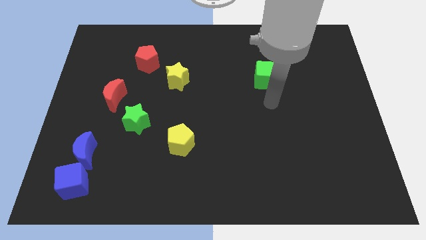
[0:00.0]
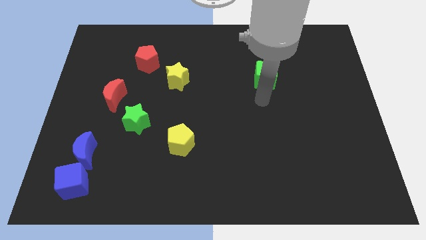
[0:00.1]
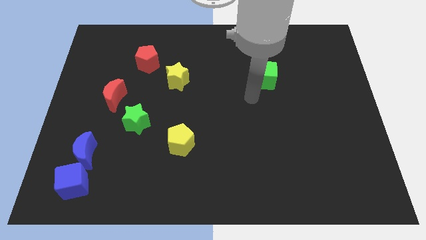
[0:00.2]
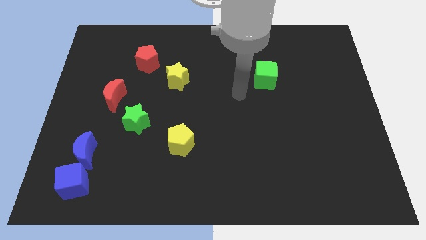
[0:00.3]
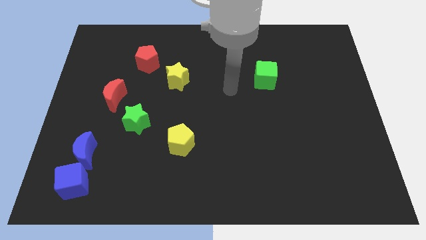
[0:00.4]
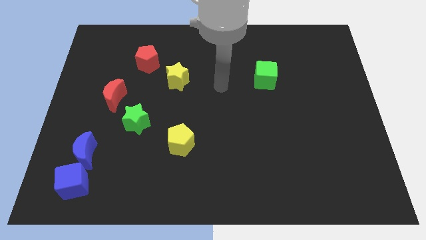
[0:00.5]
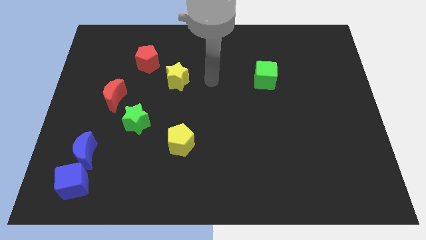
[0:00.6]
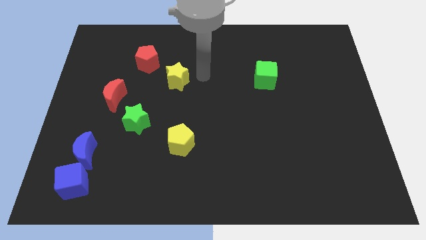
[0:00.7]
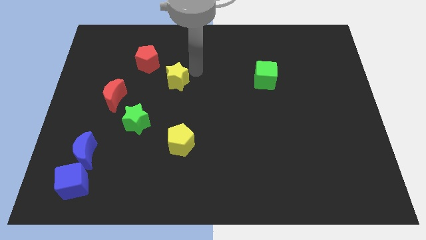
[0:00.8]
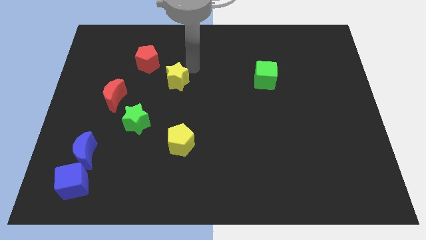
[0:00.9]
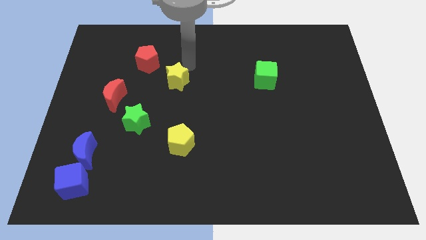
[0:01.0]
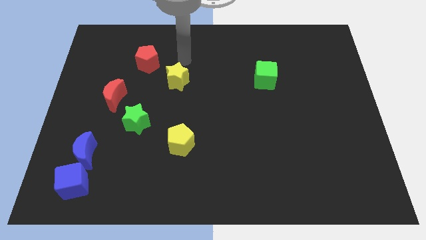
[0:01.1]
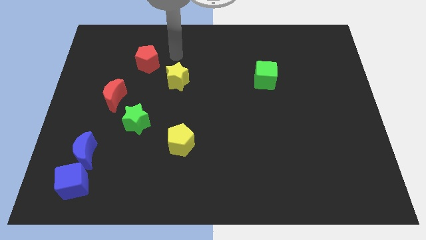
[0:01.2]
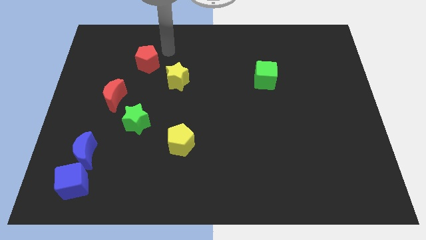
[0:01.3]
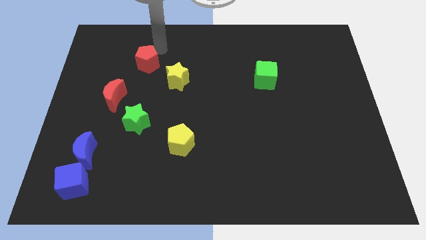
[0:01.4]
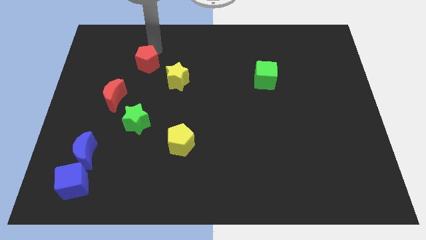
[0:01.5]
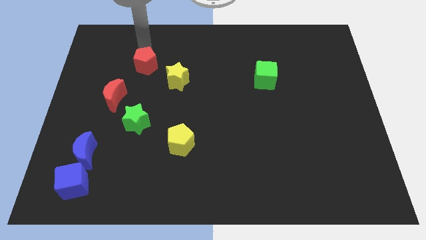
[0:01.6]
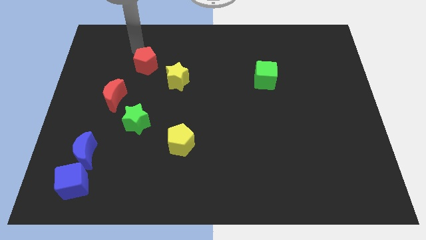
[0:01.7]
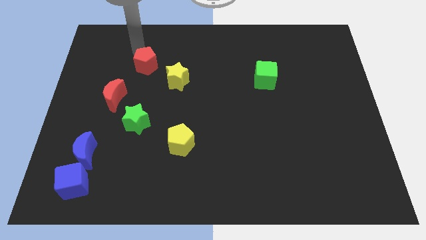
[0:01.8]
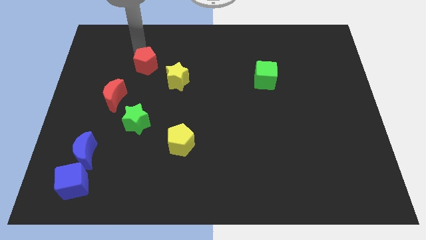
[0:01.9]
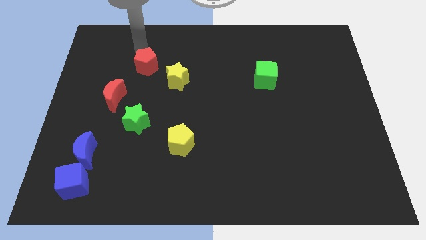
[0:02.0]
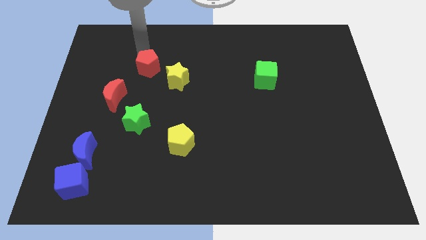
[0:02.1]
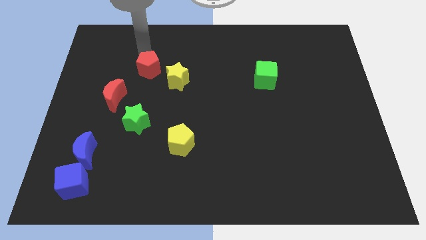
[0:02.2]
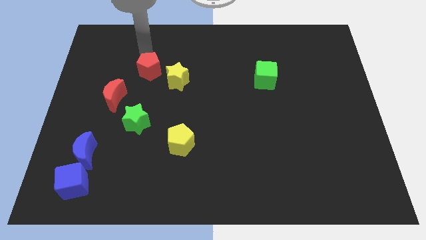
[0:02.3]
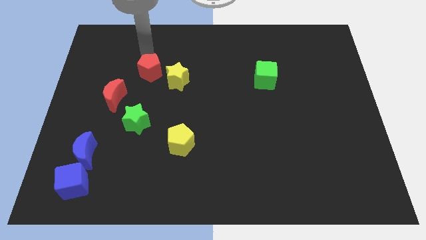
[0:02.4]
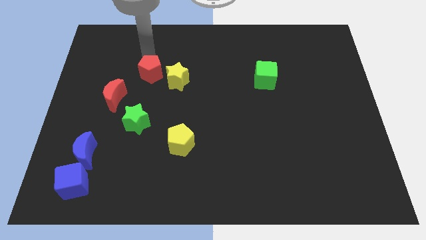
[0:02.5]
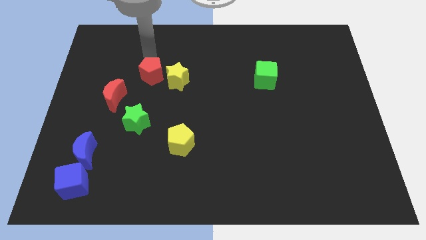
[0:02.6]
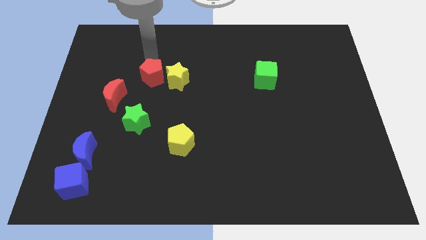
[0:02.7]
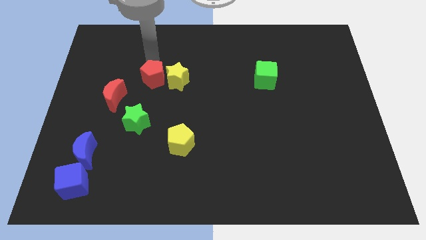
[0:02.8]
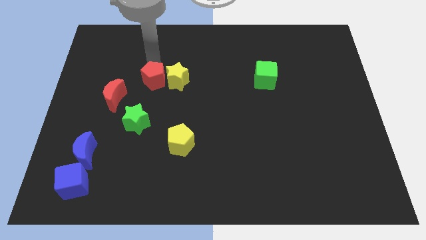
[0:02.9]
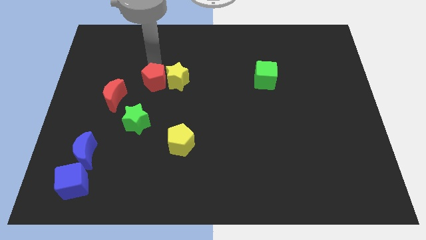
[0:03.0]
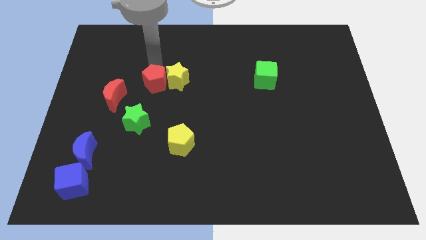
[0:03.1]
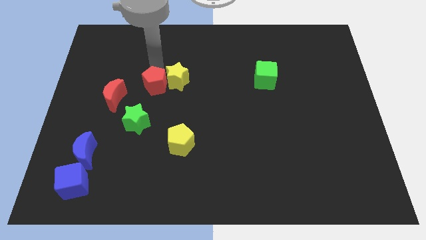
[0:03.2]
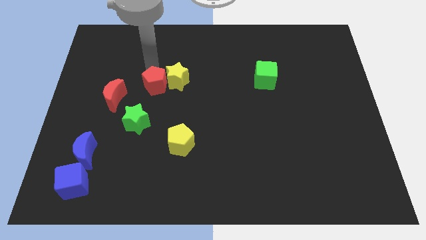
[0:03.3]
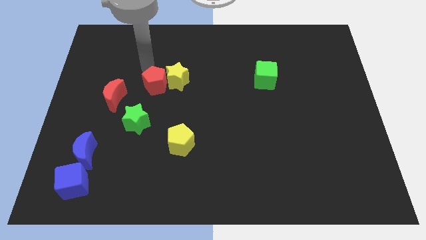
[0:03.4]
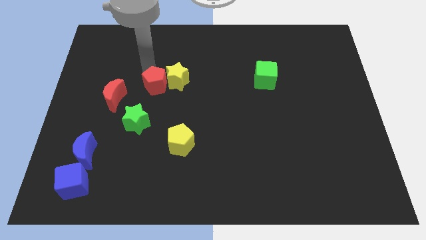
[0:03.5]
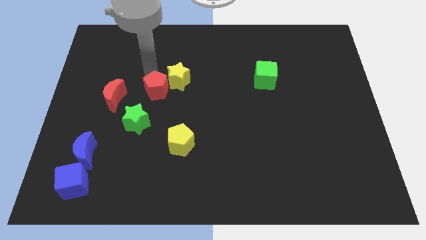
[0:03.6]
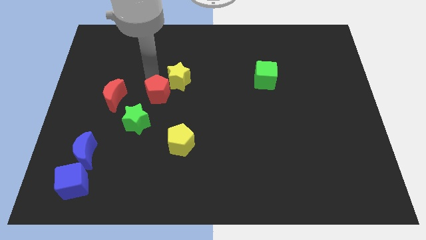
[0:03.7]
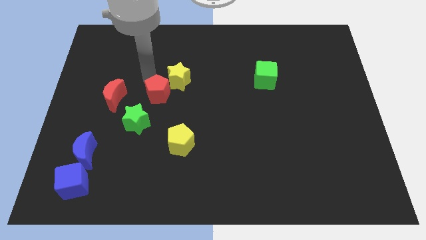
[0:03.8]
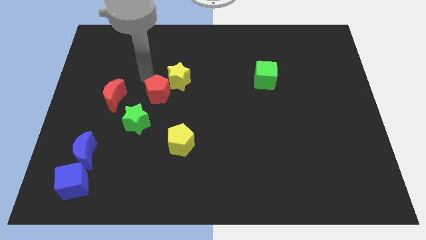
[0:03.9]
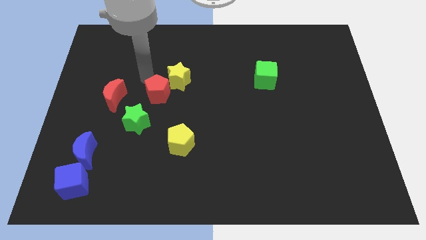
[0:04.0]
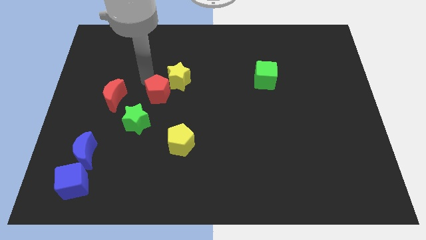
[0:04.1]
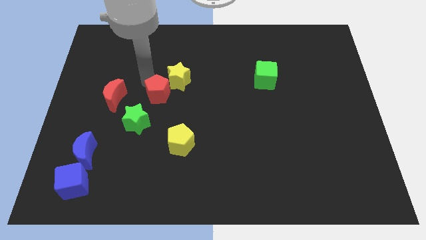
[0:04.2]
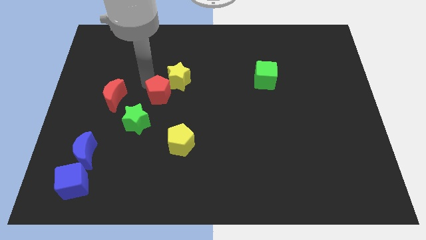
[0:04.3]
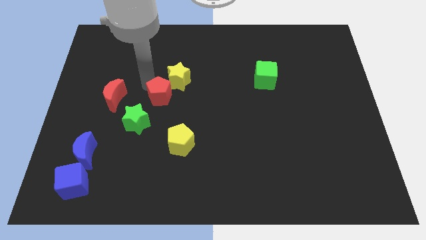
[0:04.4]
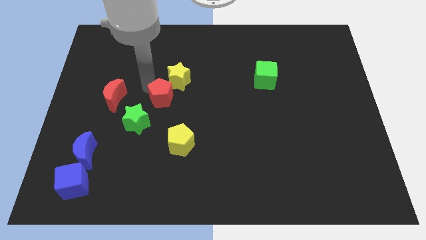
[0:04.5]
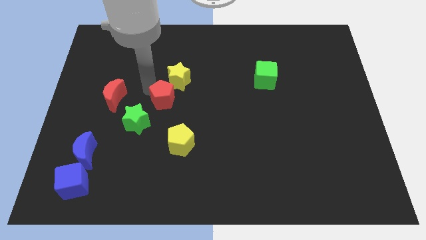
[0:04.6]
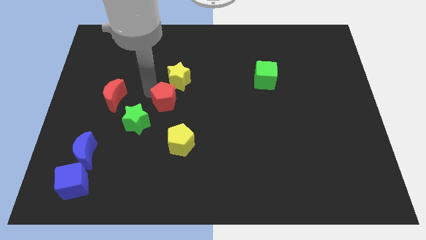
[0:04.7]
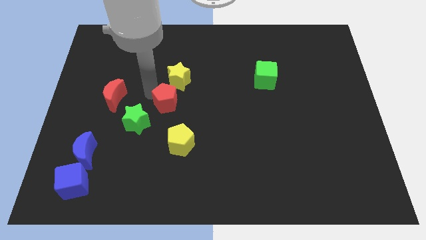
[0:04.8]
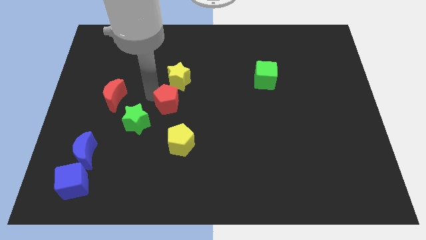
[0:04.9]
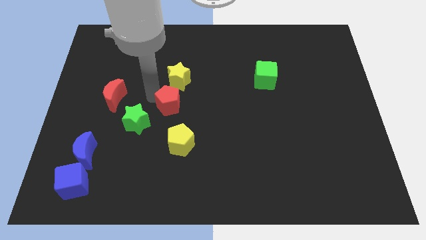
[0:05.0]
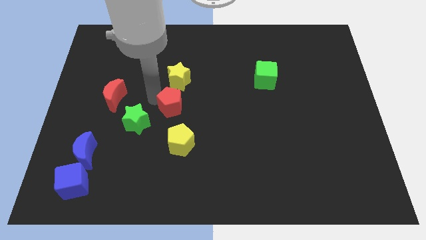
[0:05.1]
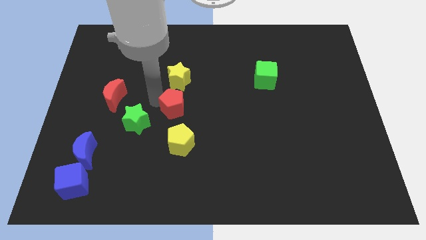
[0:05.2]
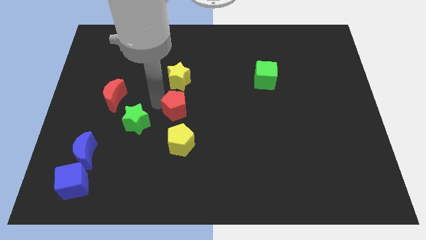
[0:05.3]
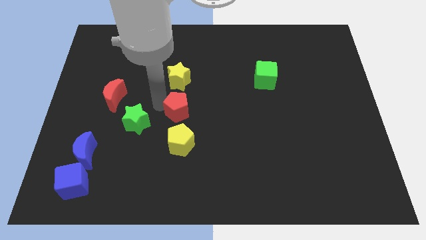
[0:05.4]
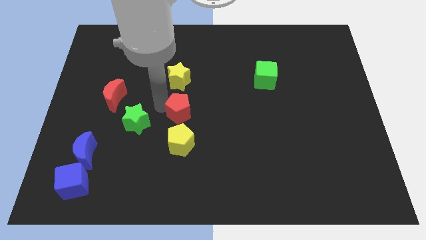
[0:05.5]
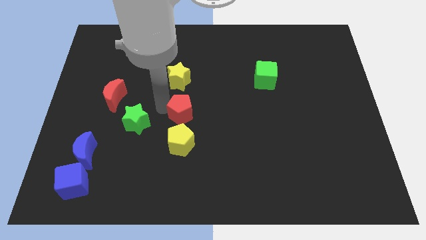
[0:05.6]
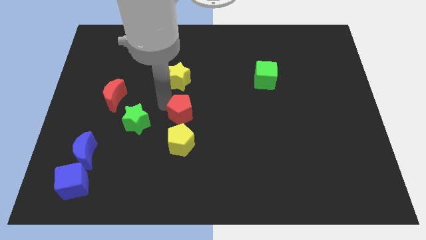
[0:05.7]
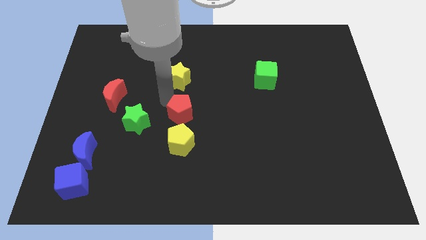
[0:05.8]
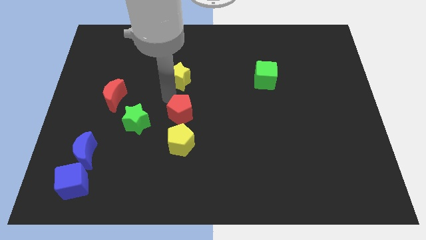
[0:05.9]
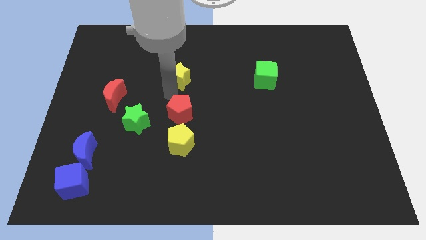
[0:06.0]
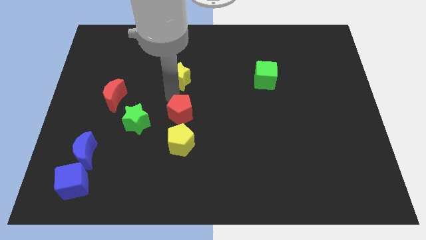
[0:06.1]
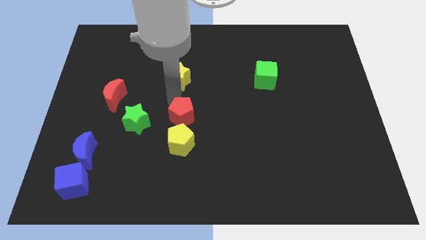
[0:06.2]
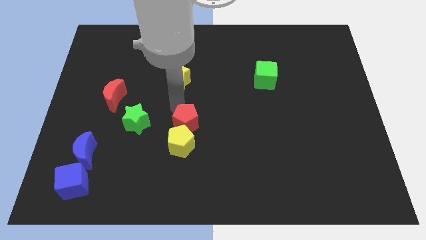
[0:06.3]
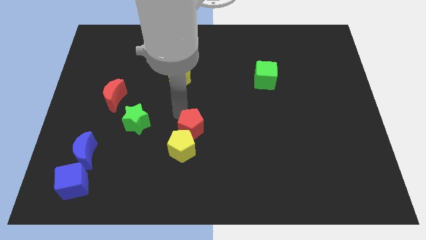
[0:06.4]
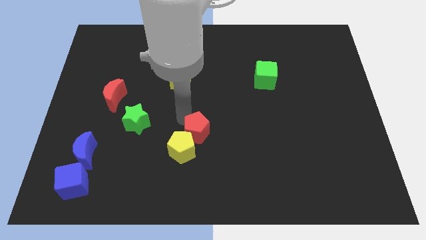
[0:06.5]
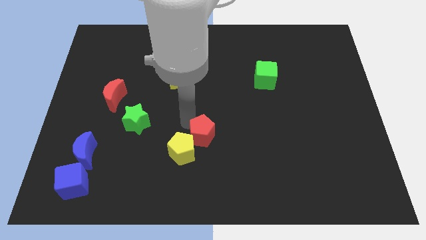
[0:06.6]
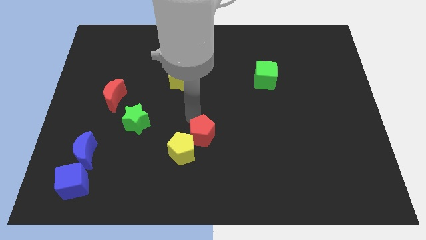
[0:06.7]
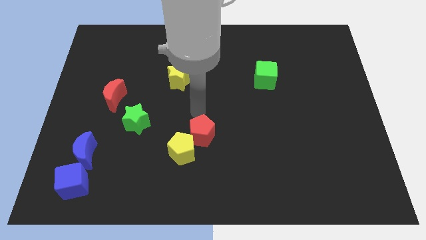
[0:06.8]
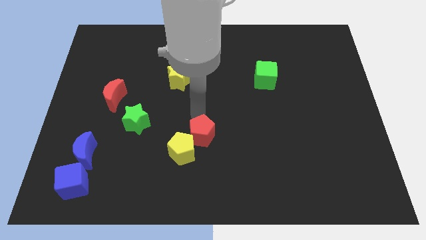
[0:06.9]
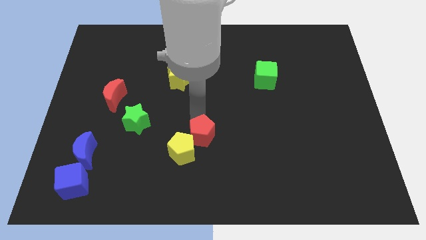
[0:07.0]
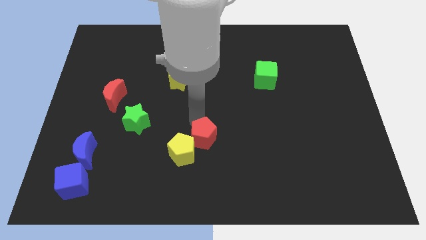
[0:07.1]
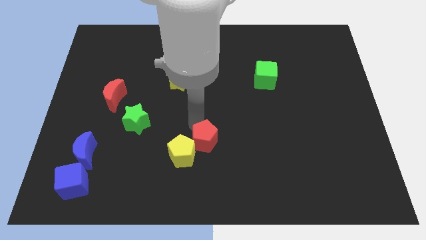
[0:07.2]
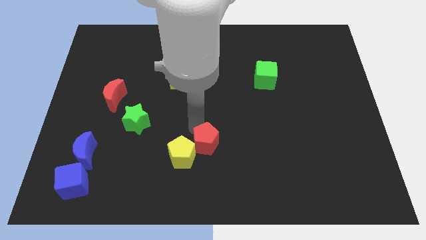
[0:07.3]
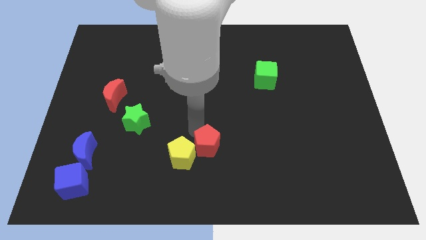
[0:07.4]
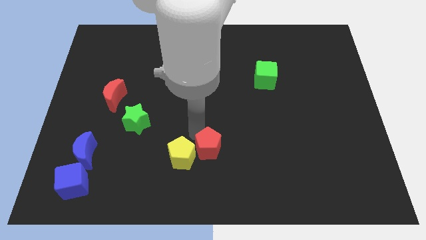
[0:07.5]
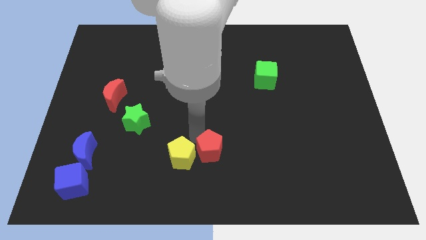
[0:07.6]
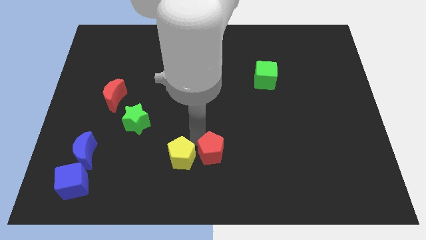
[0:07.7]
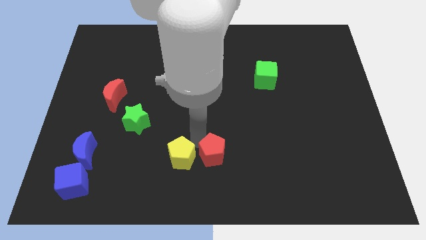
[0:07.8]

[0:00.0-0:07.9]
slide the red pentagon to the bottom
